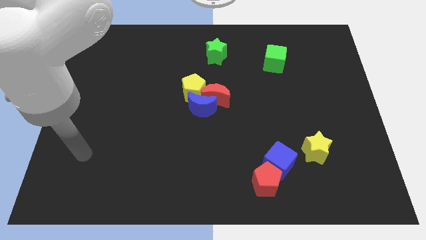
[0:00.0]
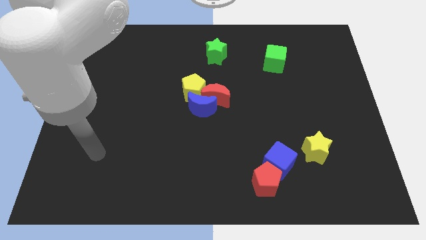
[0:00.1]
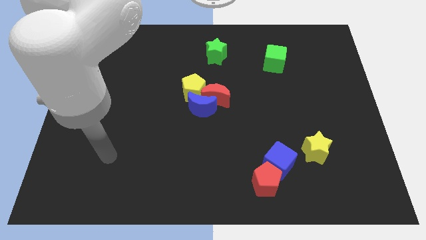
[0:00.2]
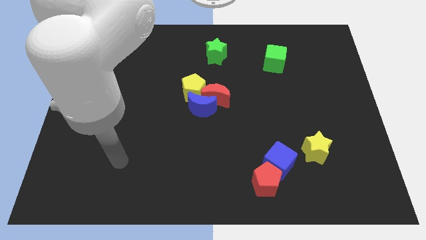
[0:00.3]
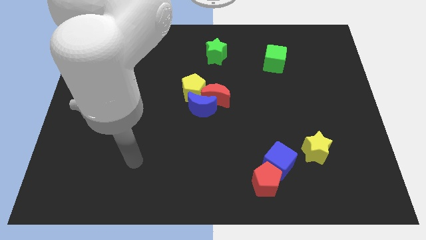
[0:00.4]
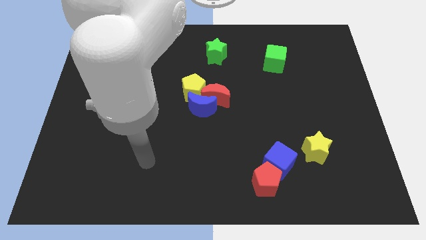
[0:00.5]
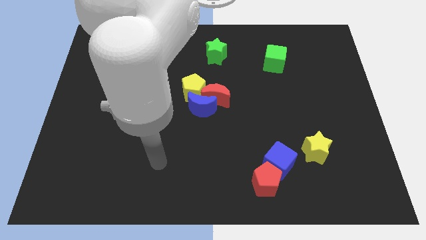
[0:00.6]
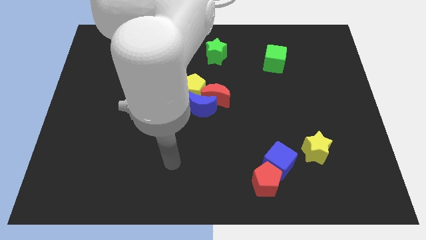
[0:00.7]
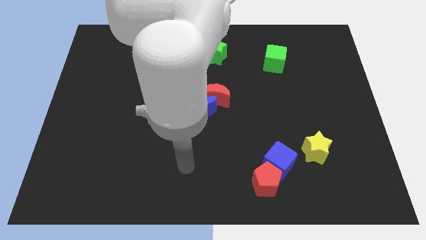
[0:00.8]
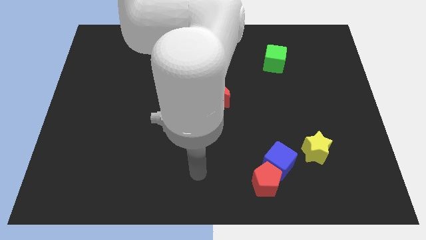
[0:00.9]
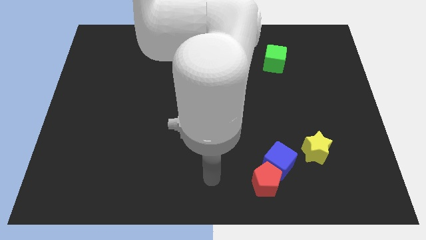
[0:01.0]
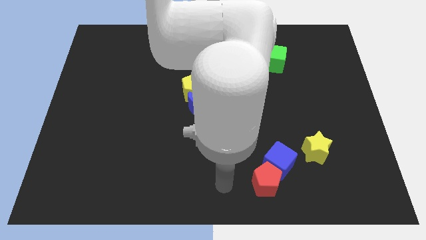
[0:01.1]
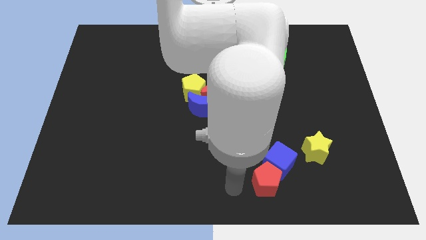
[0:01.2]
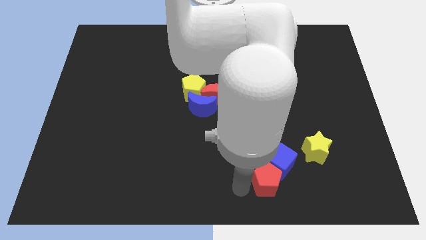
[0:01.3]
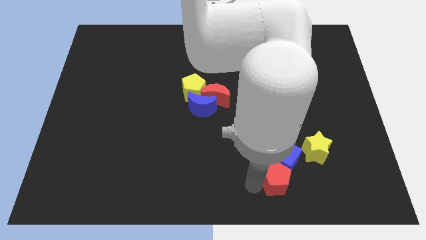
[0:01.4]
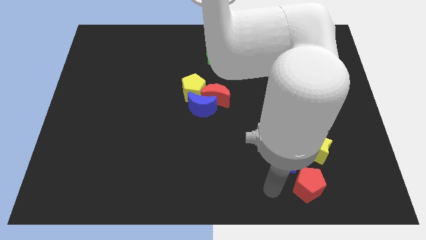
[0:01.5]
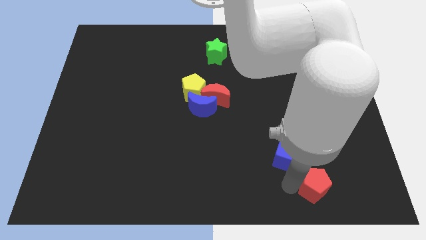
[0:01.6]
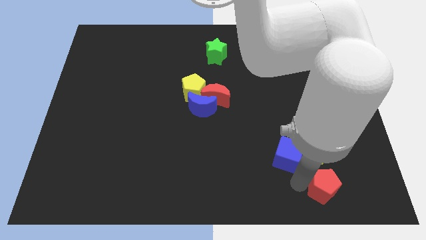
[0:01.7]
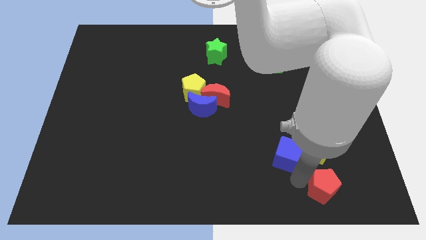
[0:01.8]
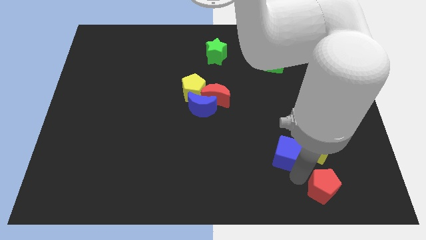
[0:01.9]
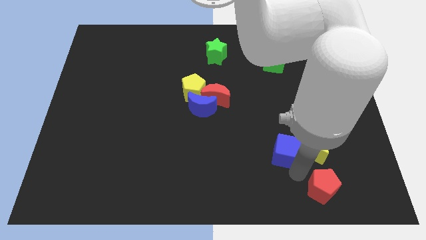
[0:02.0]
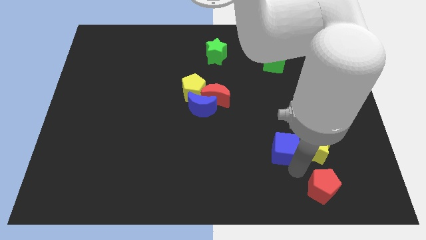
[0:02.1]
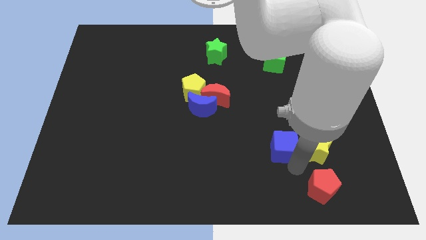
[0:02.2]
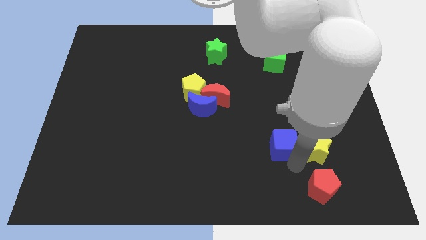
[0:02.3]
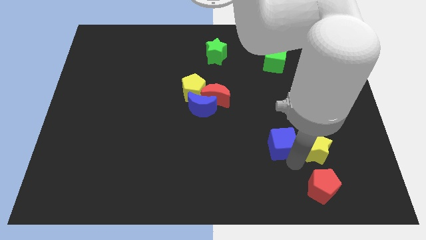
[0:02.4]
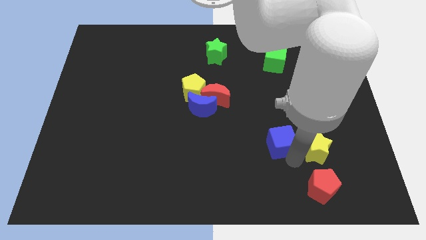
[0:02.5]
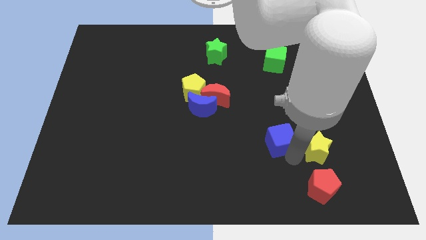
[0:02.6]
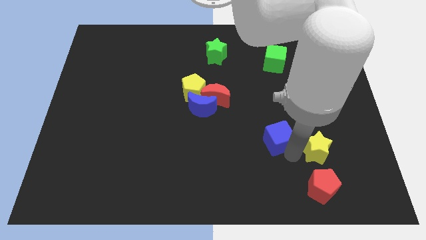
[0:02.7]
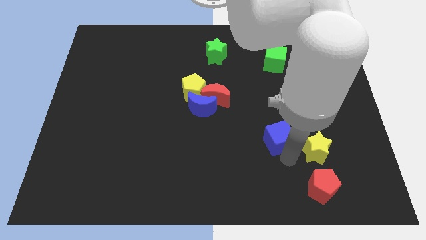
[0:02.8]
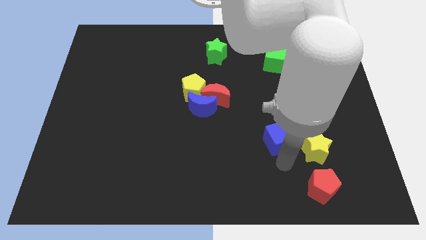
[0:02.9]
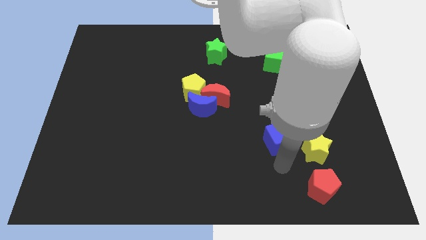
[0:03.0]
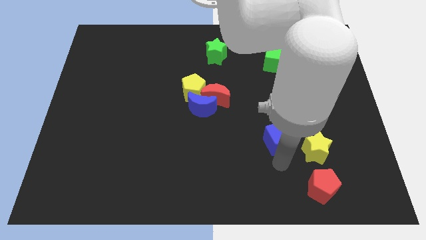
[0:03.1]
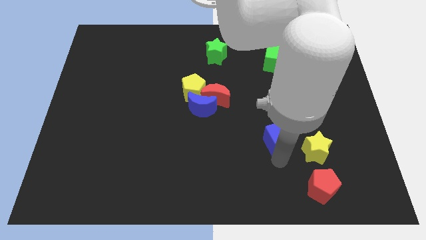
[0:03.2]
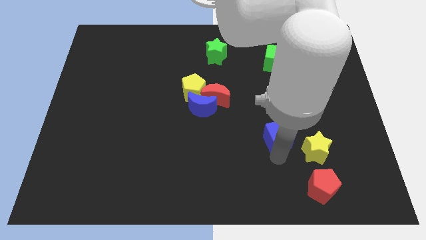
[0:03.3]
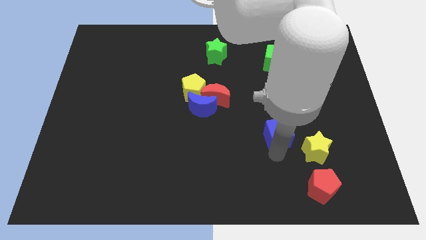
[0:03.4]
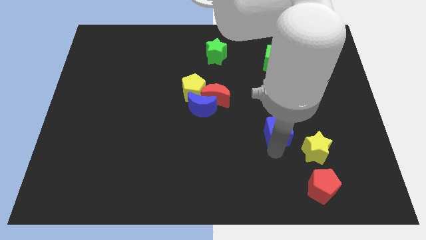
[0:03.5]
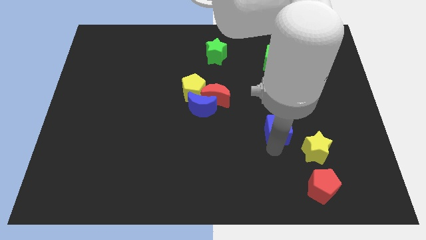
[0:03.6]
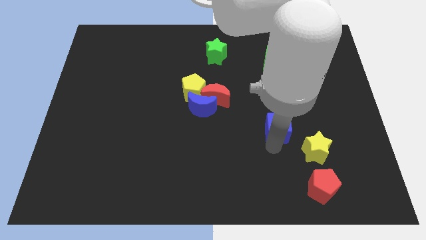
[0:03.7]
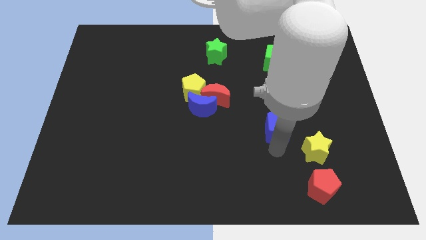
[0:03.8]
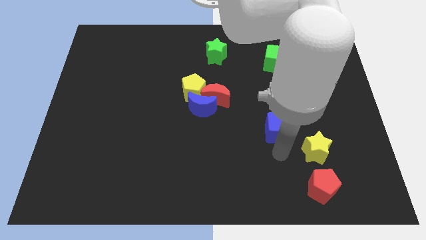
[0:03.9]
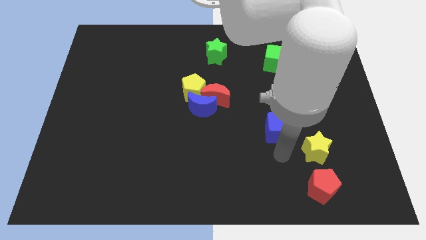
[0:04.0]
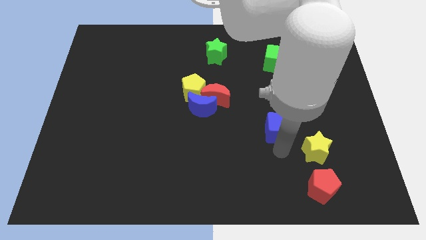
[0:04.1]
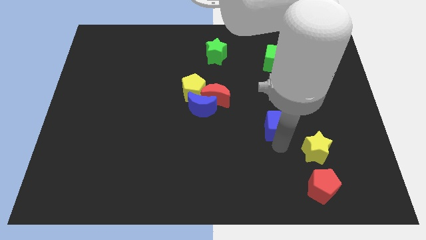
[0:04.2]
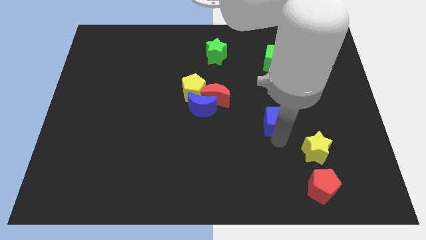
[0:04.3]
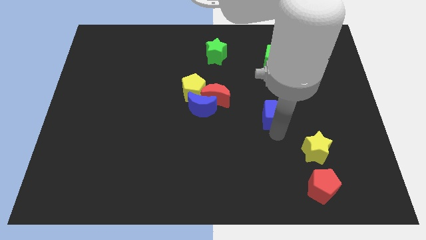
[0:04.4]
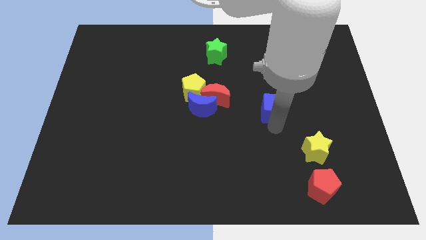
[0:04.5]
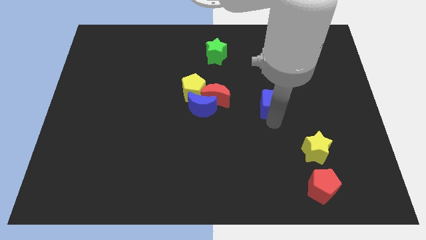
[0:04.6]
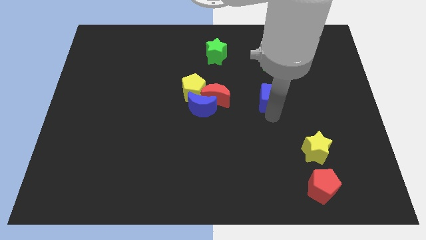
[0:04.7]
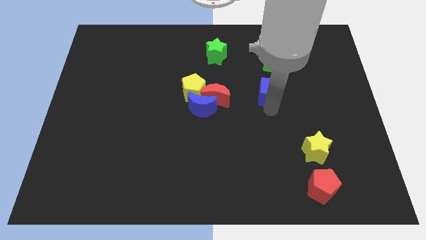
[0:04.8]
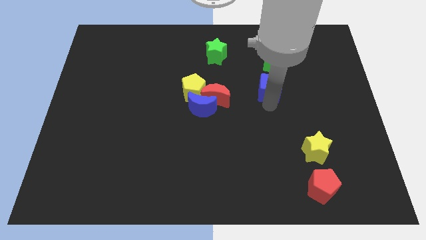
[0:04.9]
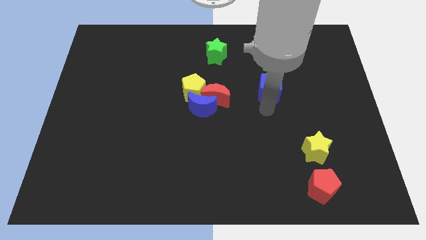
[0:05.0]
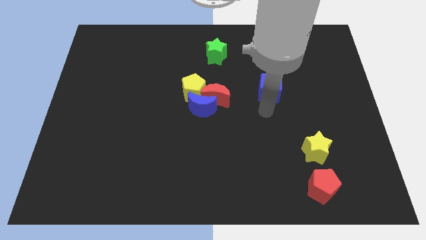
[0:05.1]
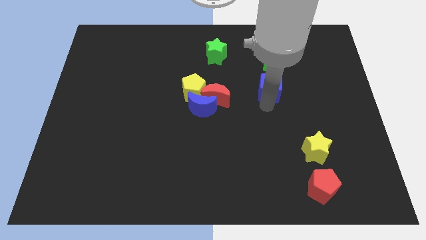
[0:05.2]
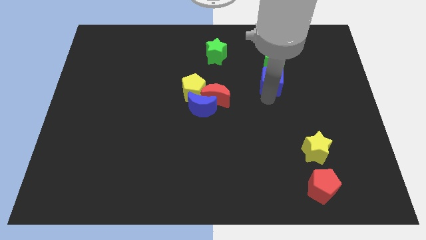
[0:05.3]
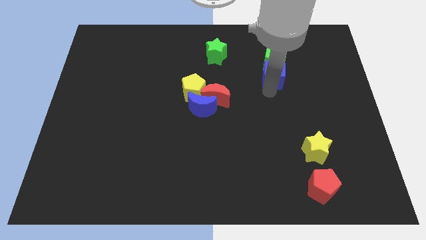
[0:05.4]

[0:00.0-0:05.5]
move the blue cube towards the green cube
